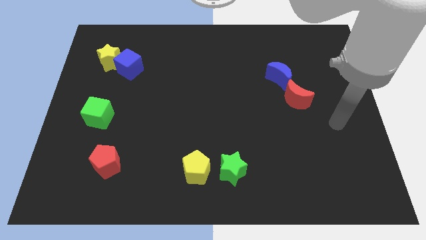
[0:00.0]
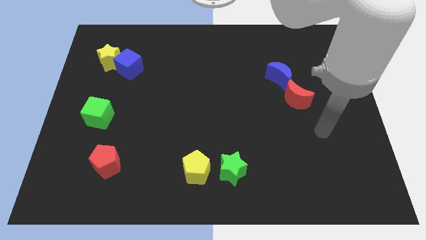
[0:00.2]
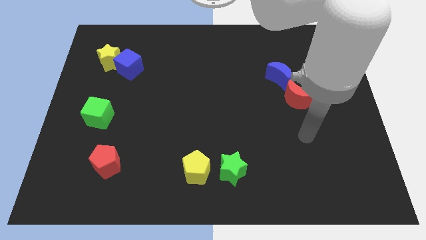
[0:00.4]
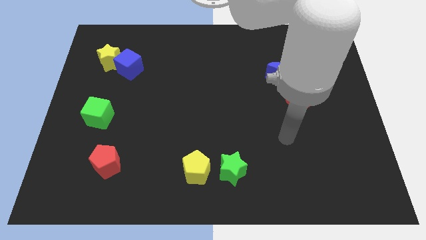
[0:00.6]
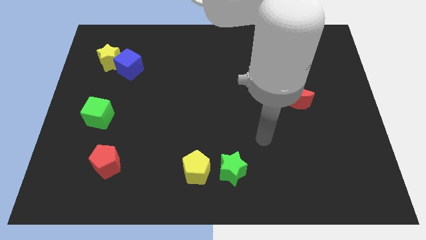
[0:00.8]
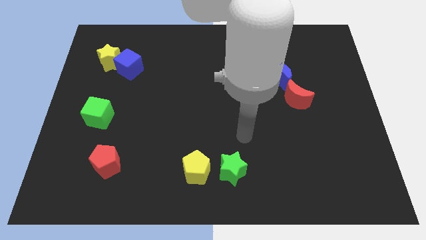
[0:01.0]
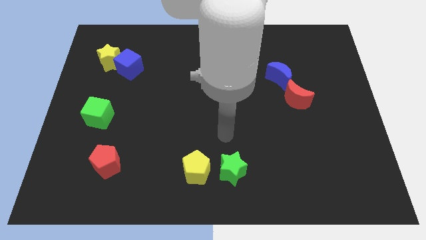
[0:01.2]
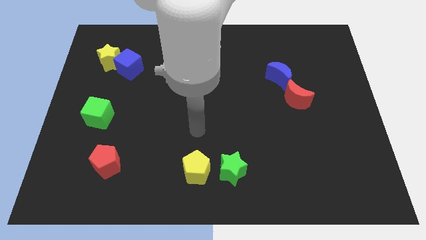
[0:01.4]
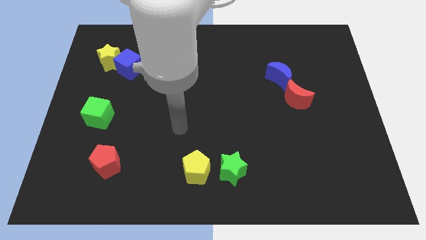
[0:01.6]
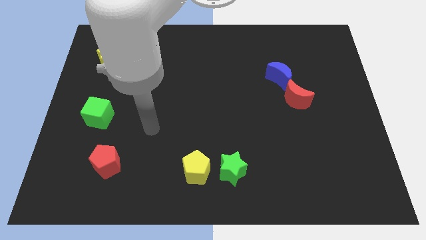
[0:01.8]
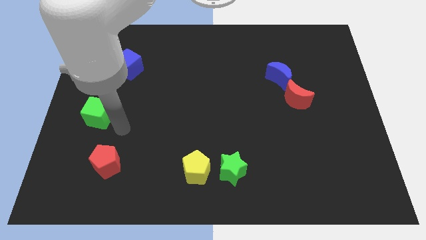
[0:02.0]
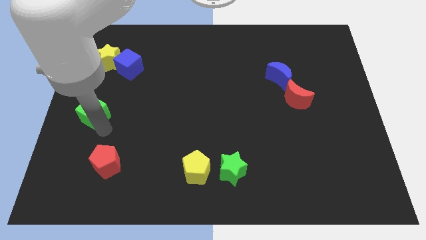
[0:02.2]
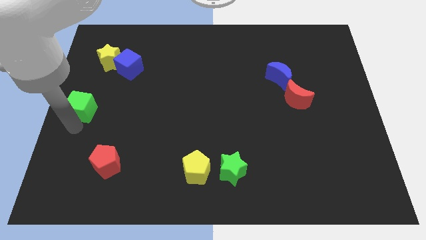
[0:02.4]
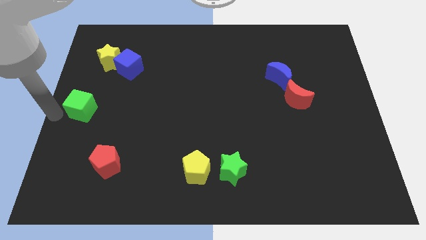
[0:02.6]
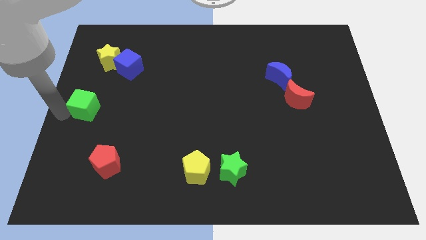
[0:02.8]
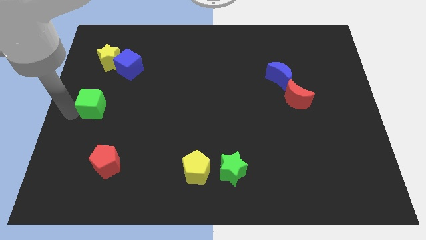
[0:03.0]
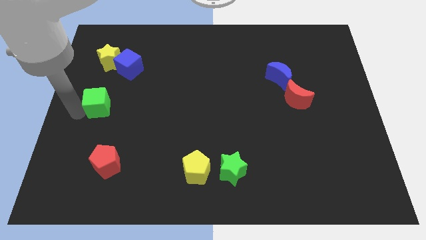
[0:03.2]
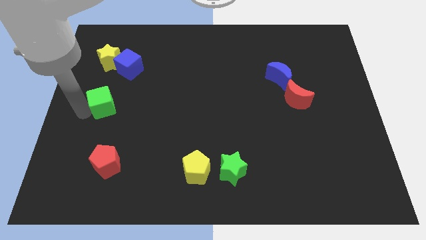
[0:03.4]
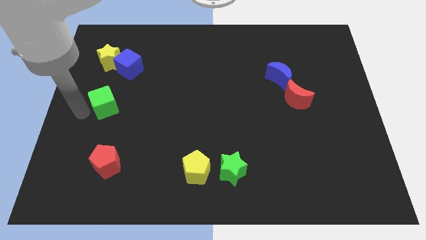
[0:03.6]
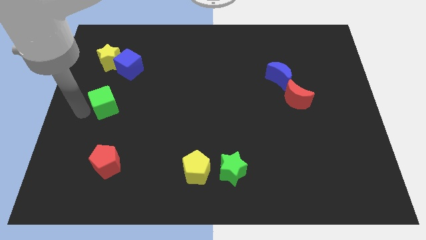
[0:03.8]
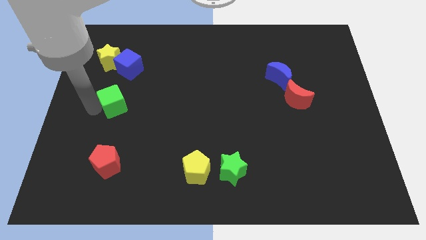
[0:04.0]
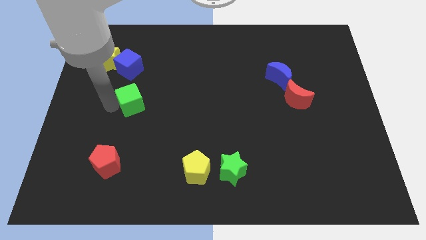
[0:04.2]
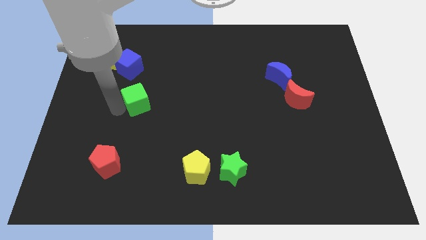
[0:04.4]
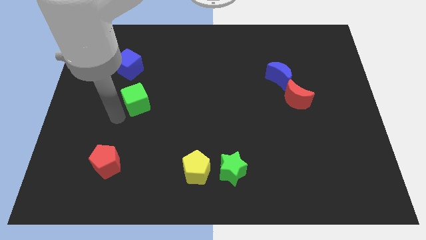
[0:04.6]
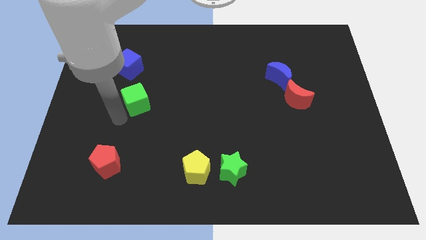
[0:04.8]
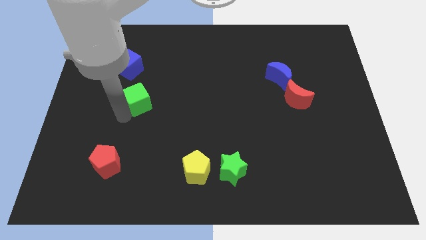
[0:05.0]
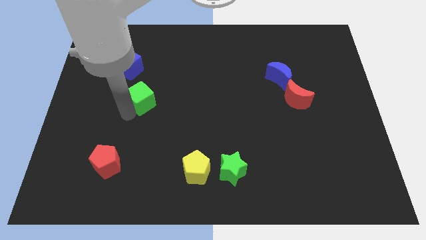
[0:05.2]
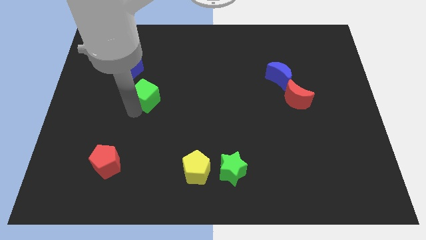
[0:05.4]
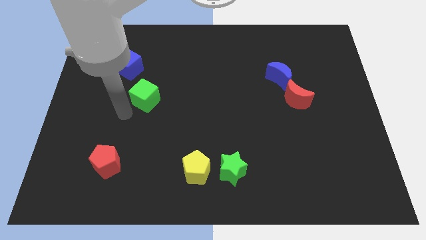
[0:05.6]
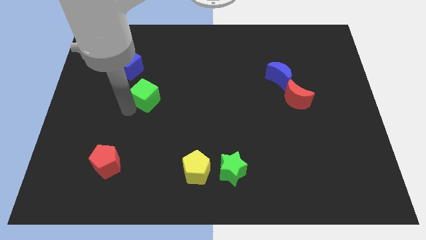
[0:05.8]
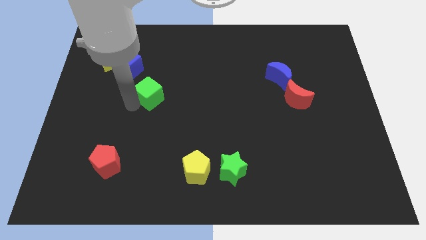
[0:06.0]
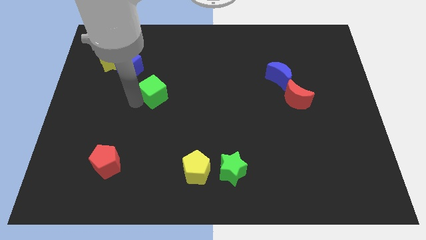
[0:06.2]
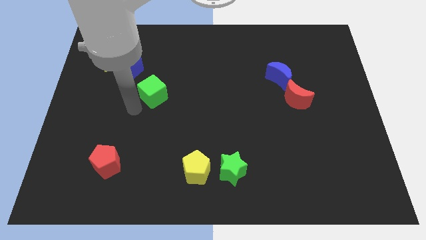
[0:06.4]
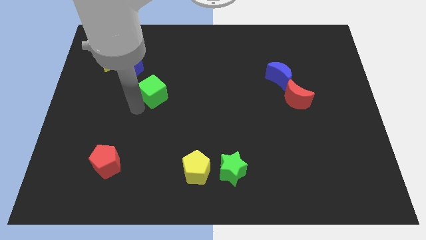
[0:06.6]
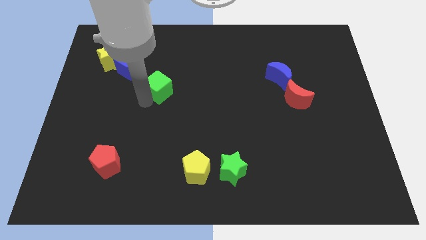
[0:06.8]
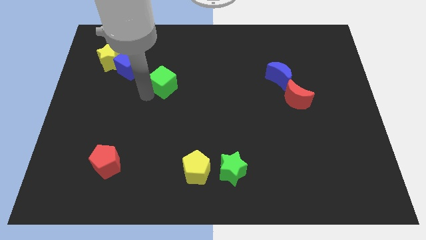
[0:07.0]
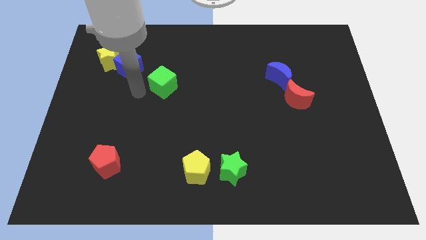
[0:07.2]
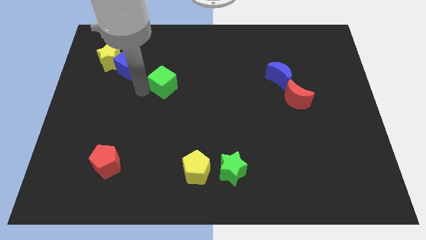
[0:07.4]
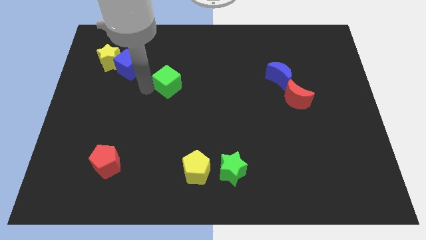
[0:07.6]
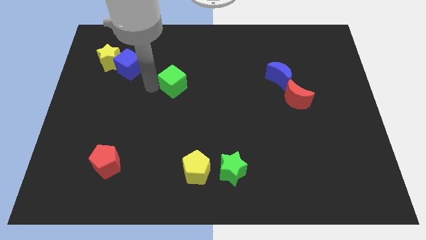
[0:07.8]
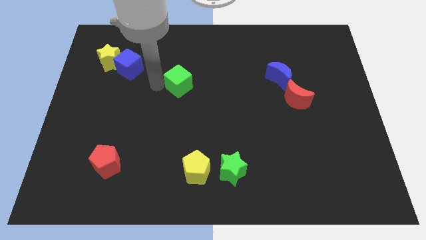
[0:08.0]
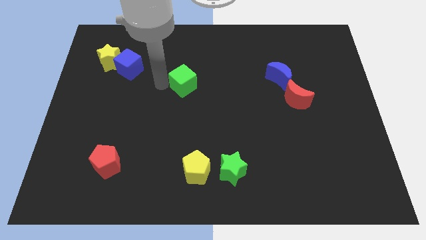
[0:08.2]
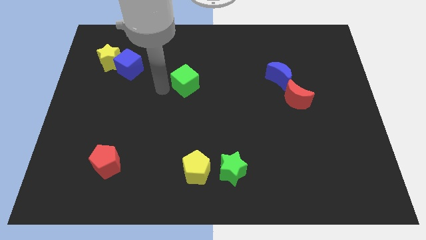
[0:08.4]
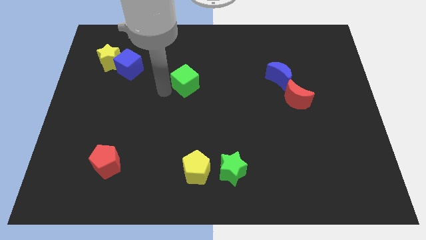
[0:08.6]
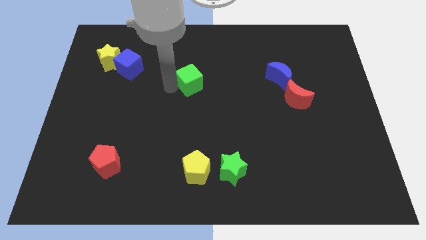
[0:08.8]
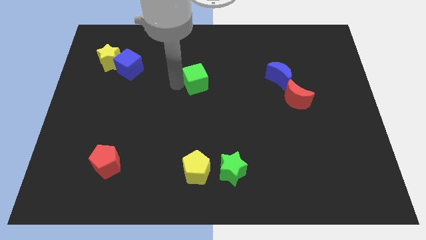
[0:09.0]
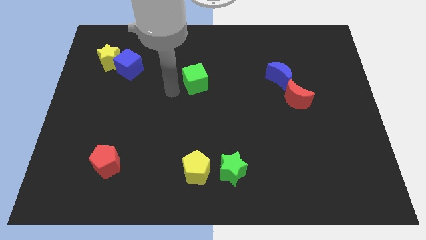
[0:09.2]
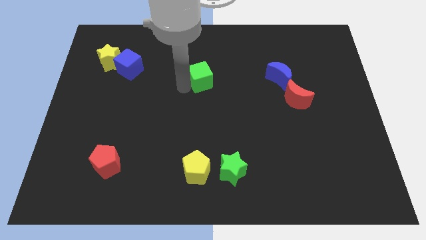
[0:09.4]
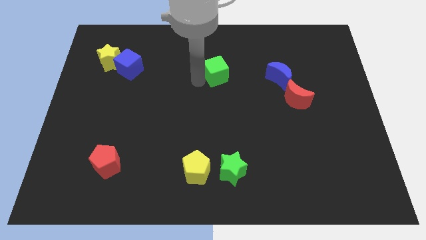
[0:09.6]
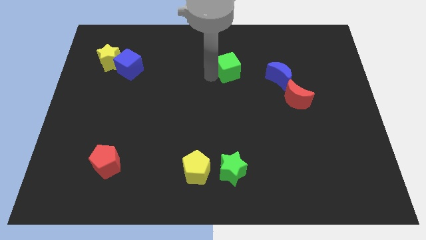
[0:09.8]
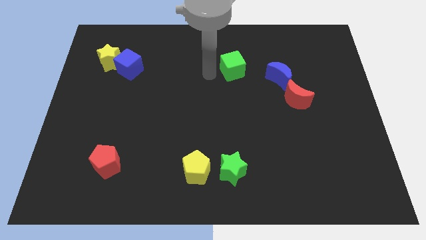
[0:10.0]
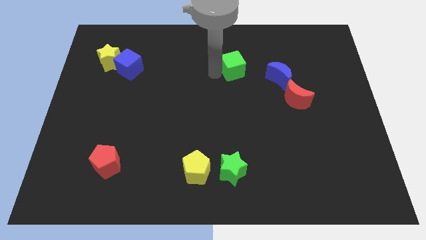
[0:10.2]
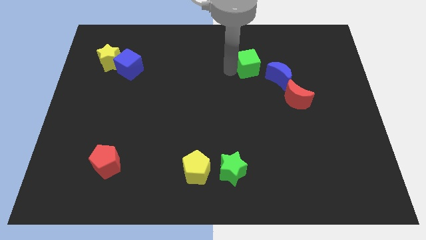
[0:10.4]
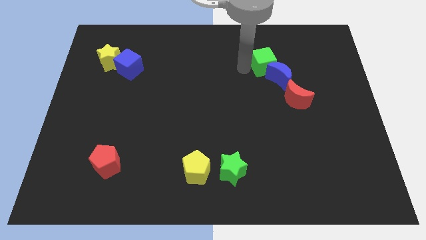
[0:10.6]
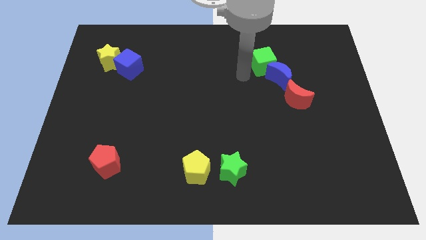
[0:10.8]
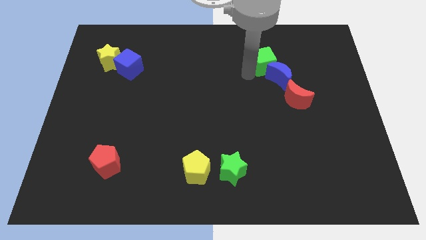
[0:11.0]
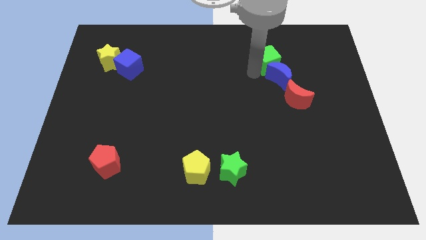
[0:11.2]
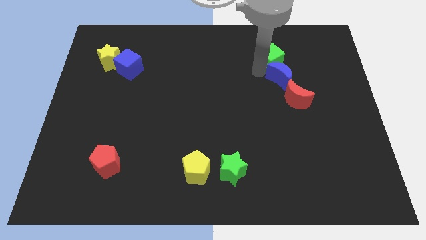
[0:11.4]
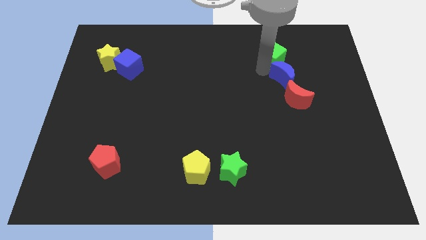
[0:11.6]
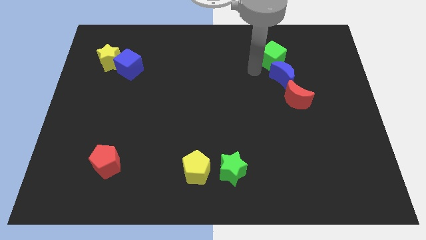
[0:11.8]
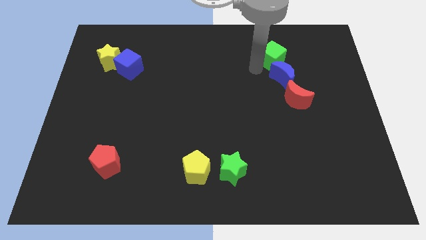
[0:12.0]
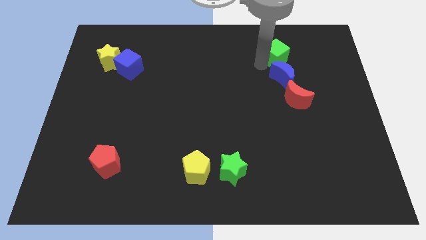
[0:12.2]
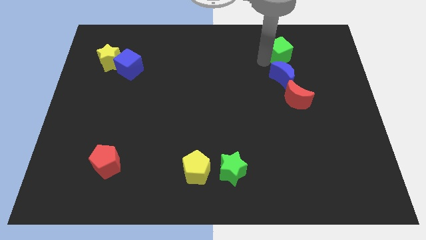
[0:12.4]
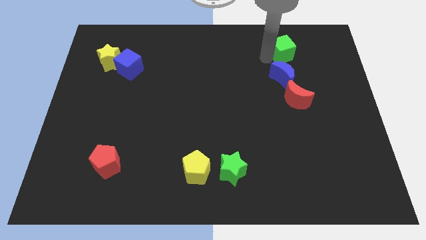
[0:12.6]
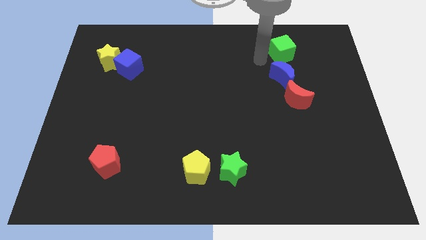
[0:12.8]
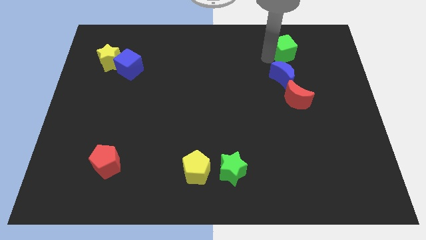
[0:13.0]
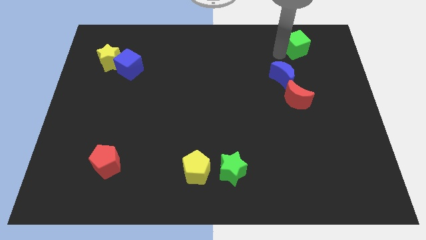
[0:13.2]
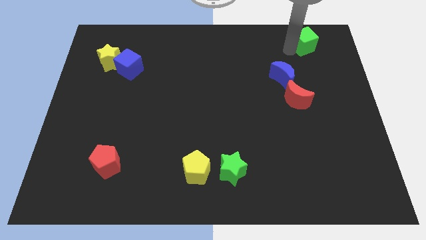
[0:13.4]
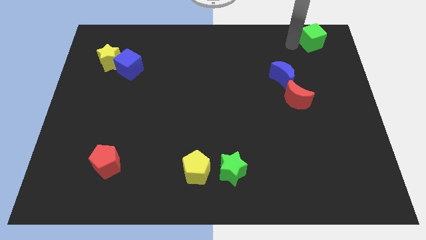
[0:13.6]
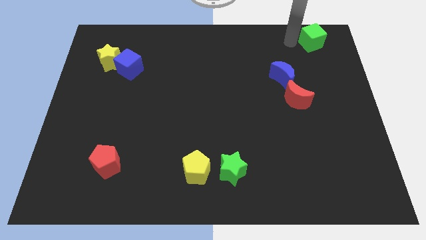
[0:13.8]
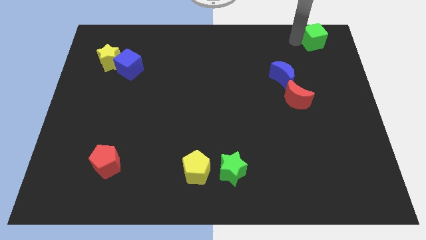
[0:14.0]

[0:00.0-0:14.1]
put the green cube to the top right of the board
